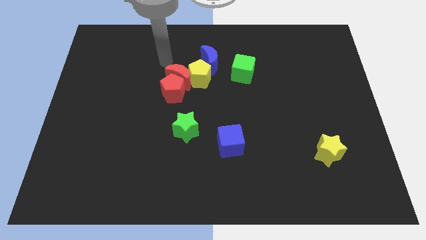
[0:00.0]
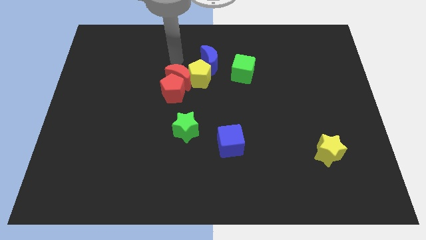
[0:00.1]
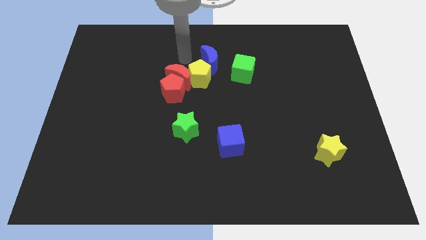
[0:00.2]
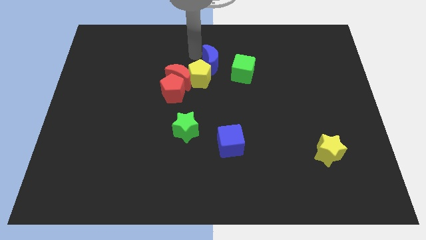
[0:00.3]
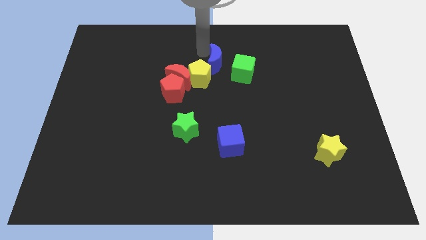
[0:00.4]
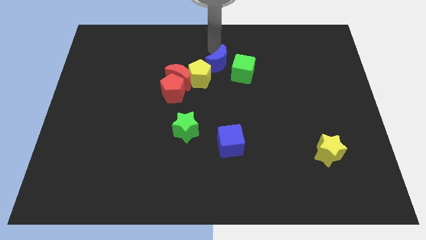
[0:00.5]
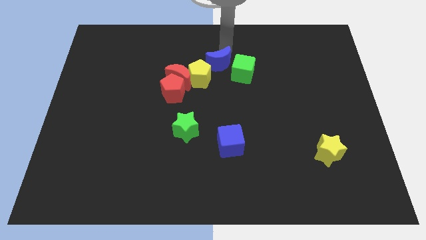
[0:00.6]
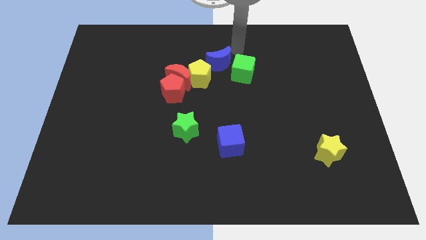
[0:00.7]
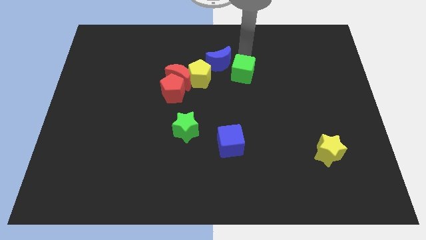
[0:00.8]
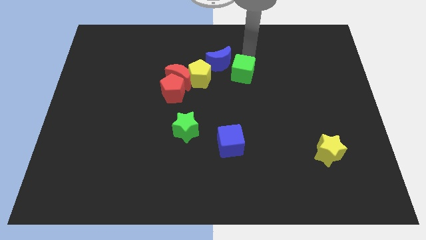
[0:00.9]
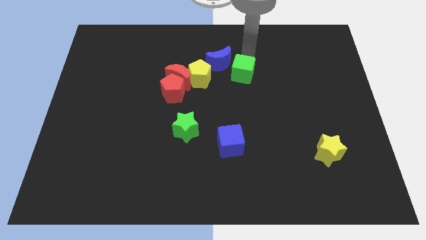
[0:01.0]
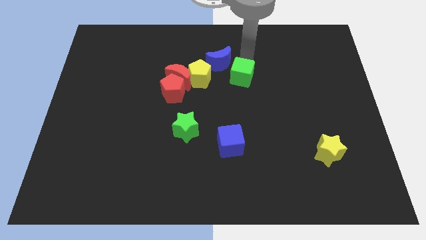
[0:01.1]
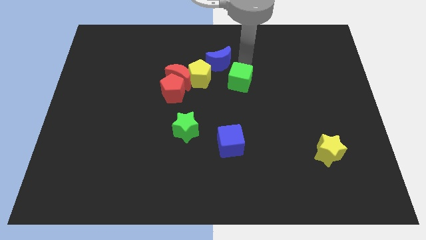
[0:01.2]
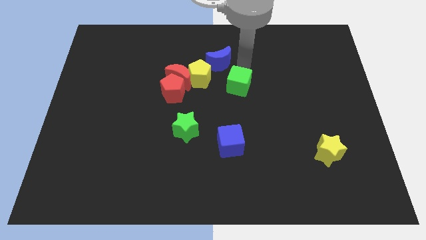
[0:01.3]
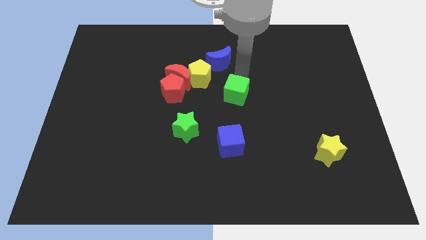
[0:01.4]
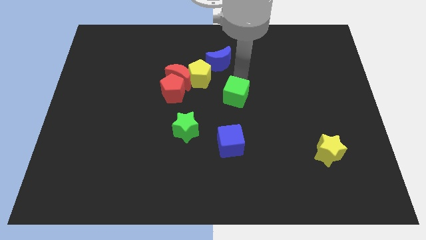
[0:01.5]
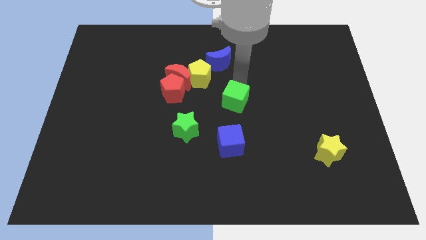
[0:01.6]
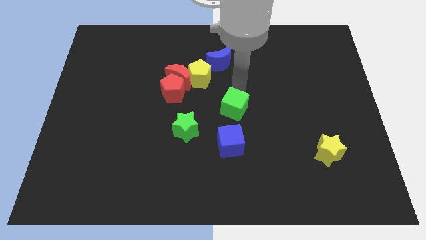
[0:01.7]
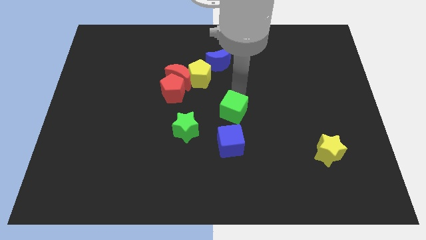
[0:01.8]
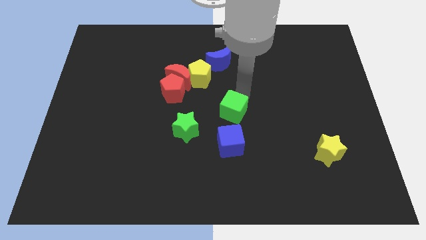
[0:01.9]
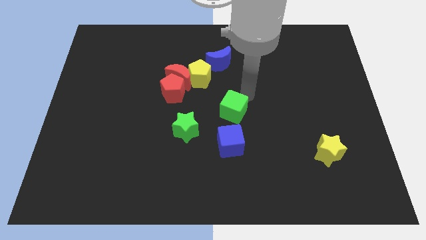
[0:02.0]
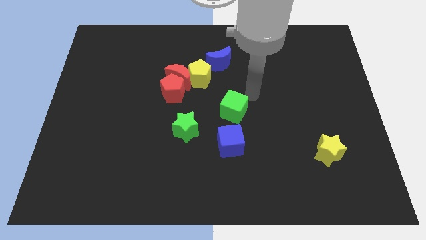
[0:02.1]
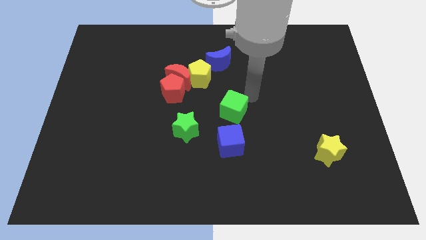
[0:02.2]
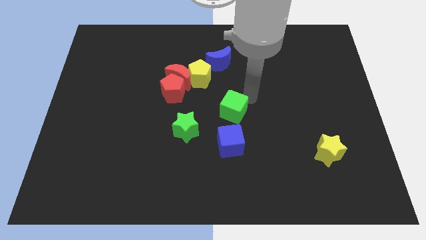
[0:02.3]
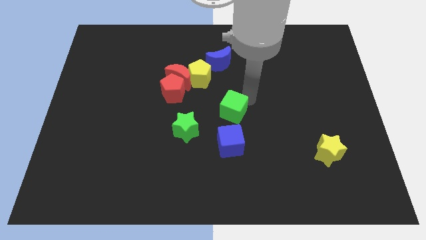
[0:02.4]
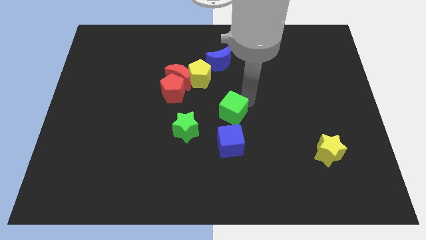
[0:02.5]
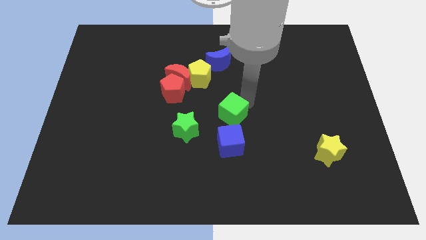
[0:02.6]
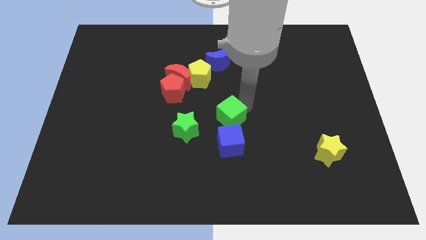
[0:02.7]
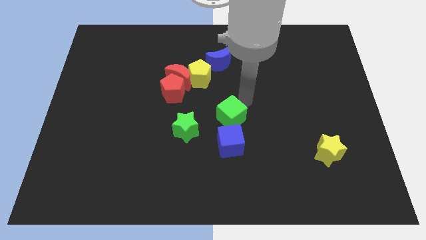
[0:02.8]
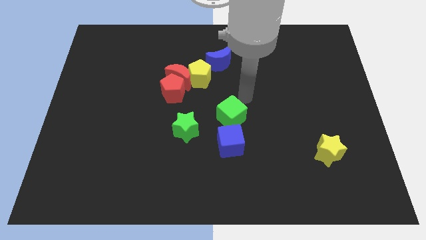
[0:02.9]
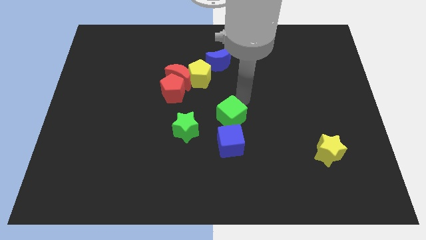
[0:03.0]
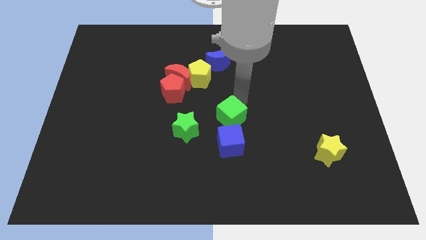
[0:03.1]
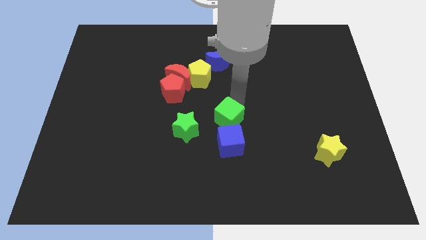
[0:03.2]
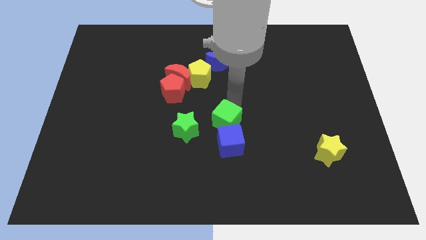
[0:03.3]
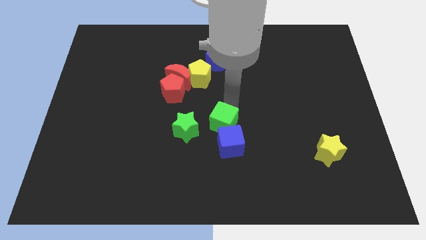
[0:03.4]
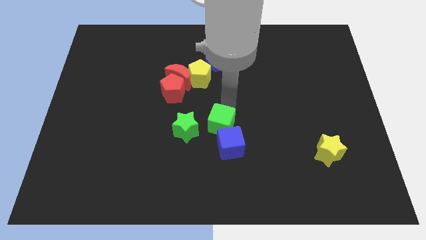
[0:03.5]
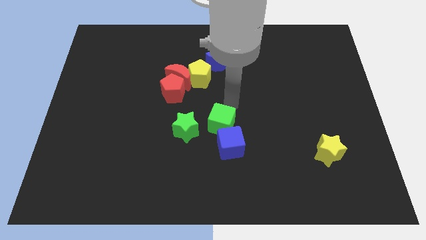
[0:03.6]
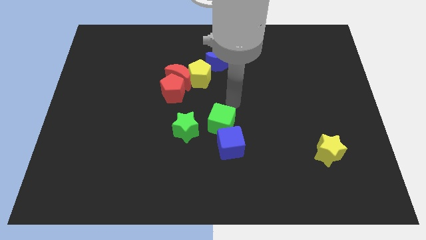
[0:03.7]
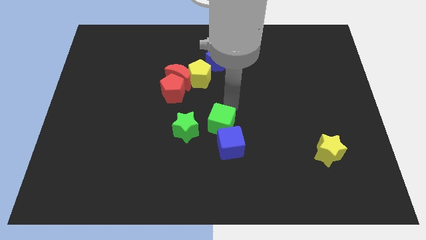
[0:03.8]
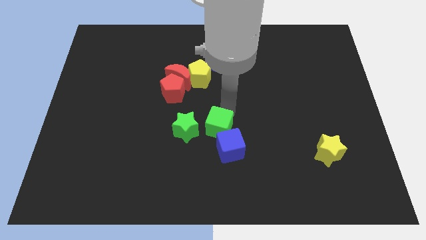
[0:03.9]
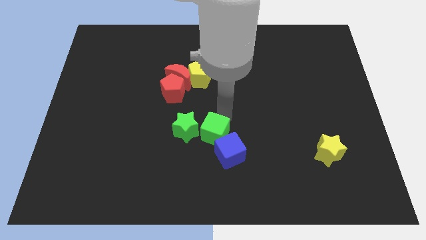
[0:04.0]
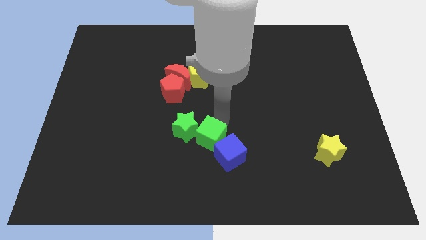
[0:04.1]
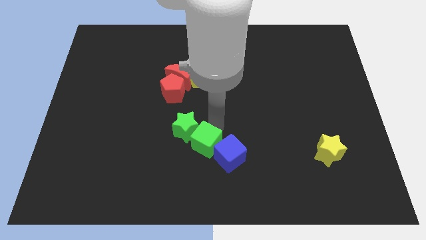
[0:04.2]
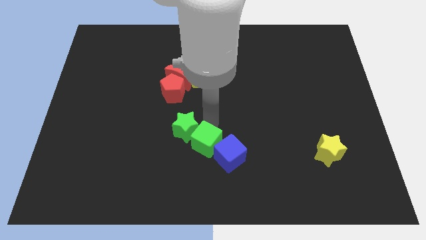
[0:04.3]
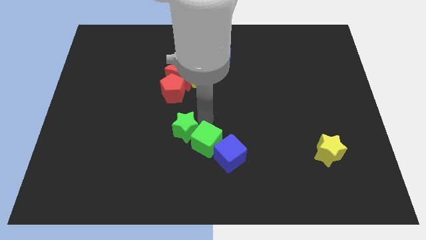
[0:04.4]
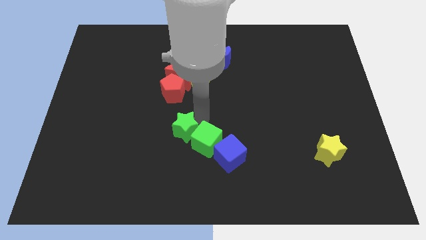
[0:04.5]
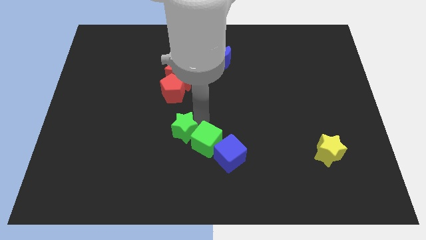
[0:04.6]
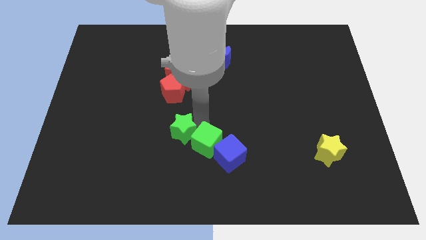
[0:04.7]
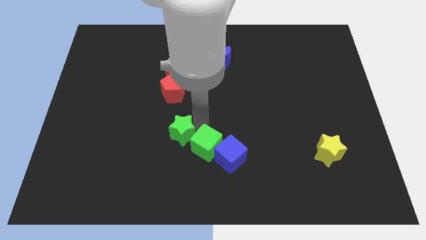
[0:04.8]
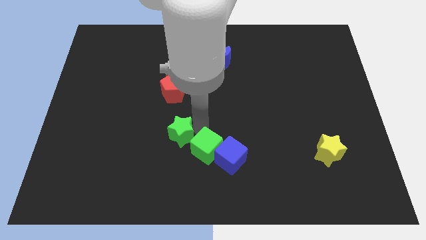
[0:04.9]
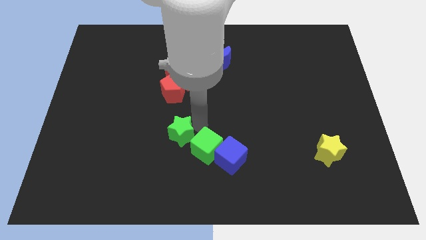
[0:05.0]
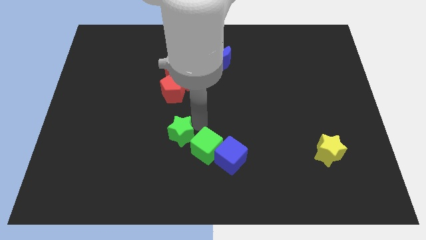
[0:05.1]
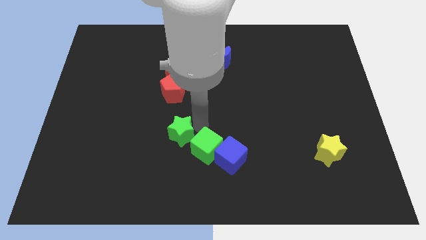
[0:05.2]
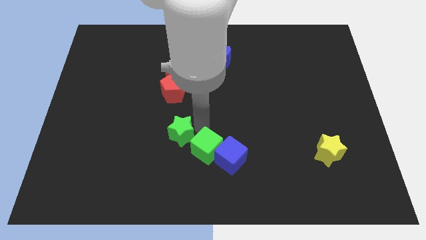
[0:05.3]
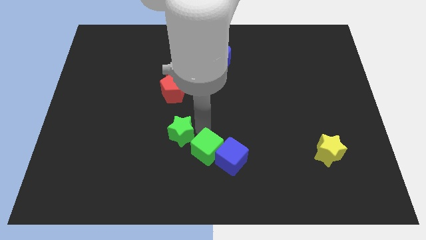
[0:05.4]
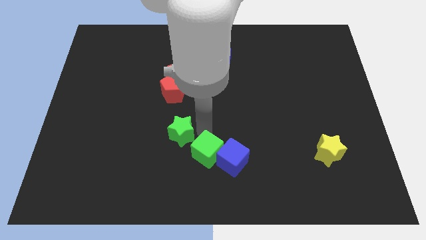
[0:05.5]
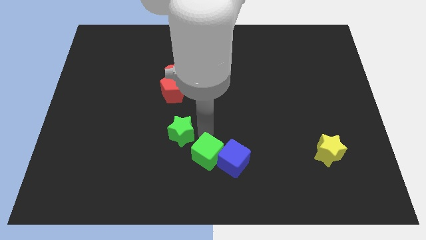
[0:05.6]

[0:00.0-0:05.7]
push the green cube to the bottom side

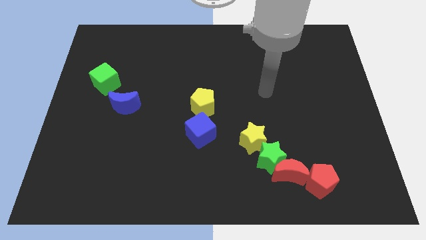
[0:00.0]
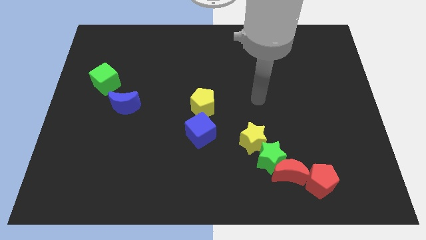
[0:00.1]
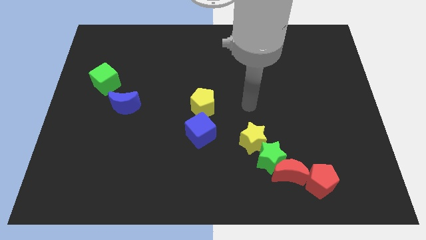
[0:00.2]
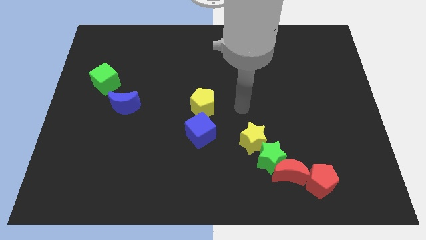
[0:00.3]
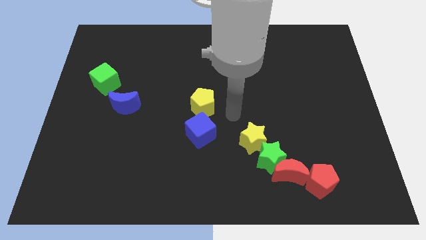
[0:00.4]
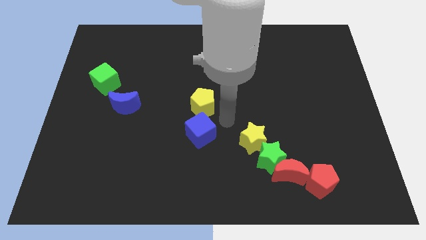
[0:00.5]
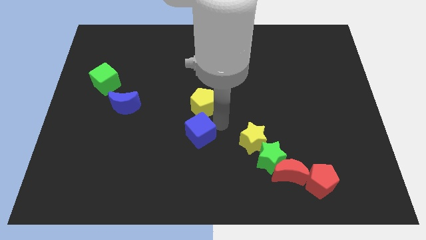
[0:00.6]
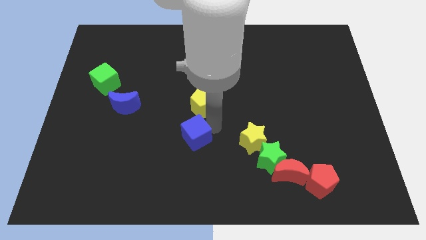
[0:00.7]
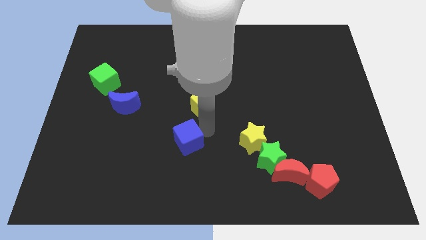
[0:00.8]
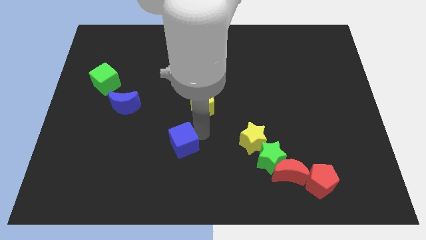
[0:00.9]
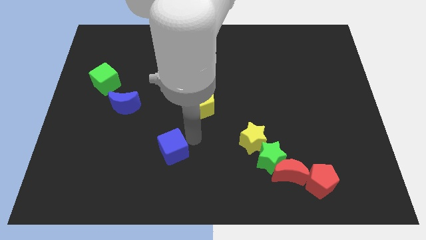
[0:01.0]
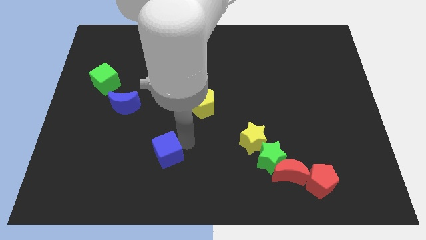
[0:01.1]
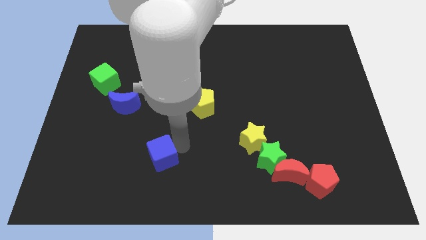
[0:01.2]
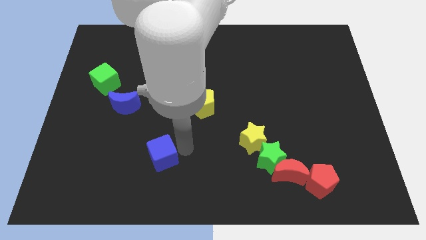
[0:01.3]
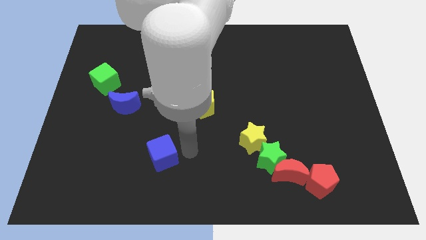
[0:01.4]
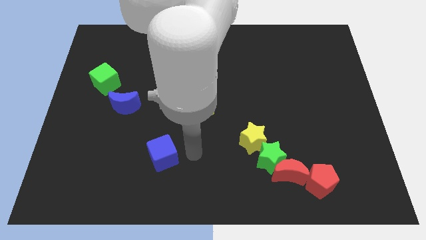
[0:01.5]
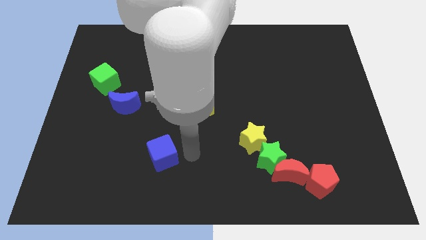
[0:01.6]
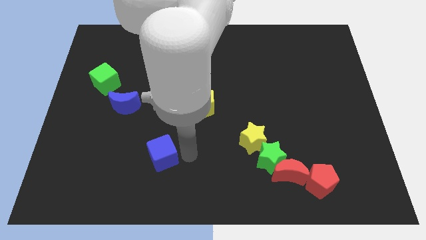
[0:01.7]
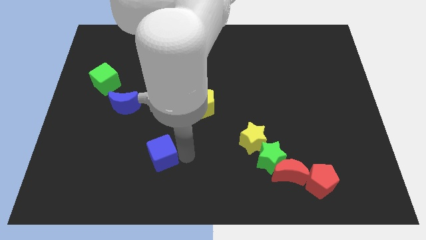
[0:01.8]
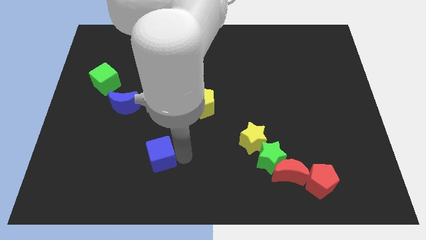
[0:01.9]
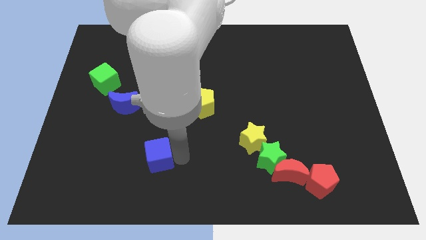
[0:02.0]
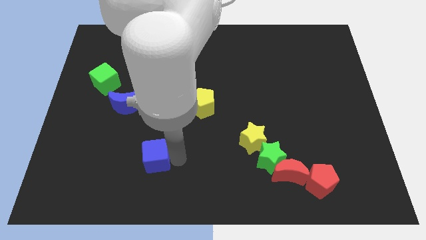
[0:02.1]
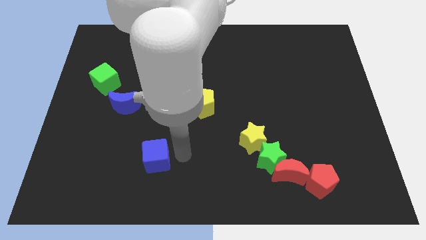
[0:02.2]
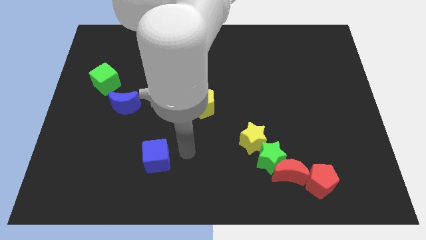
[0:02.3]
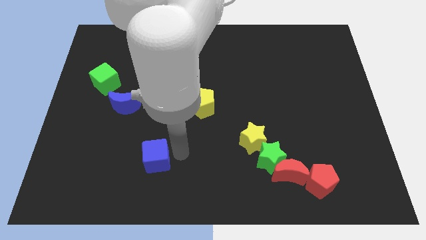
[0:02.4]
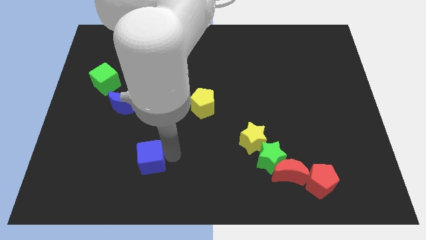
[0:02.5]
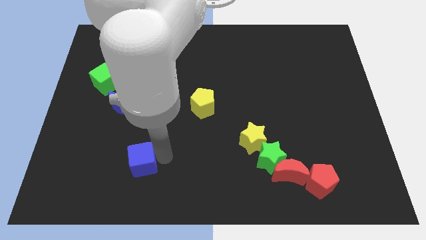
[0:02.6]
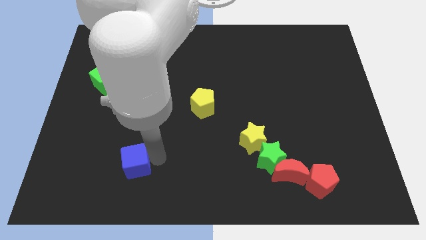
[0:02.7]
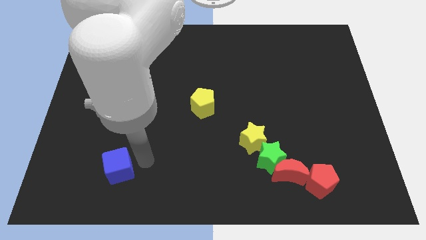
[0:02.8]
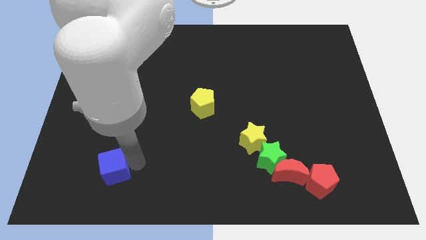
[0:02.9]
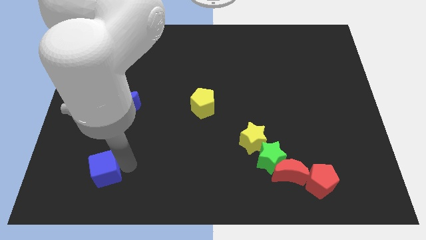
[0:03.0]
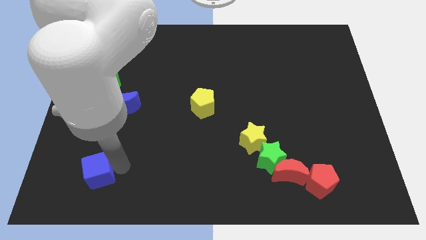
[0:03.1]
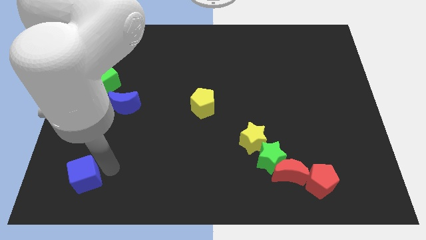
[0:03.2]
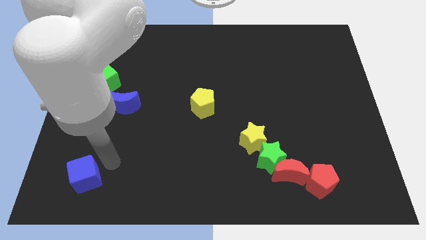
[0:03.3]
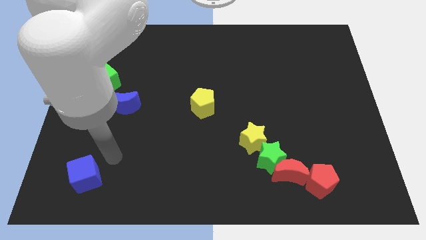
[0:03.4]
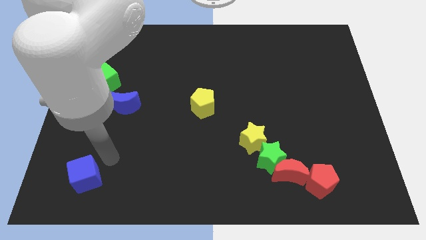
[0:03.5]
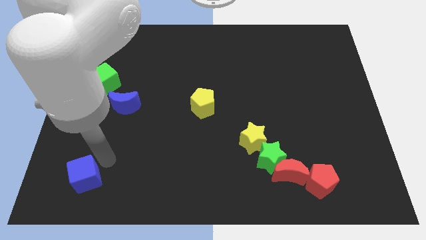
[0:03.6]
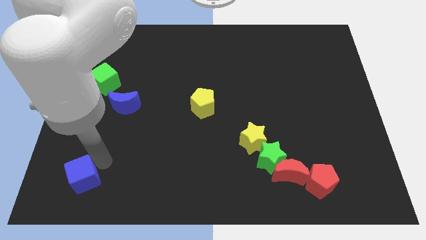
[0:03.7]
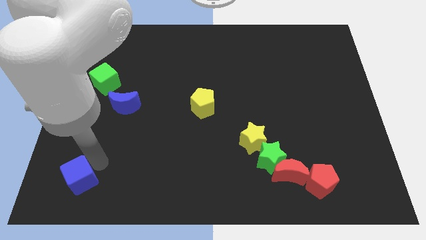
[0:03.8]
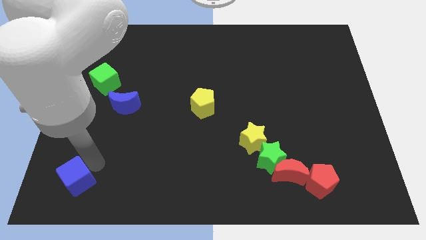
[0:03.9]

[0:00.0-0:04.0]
put the blue cube to the bottom left
